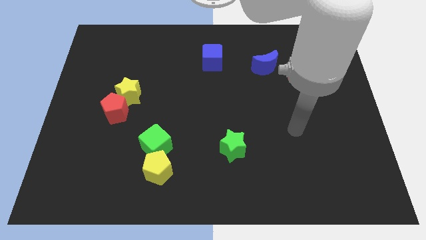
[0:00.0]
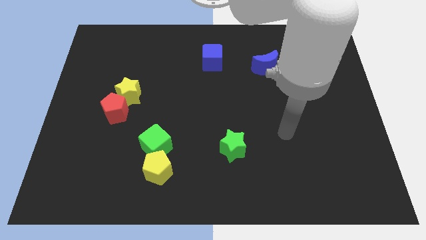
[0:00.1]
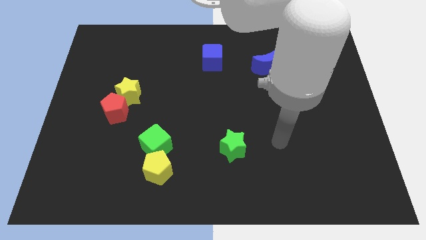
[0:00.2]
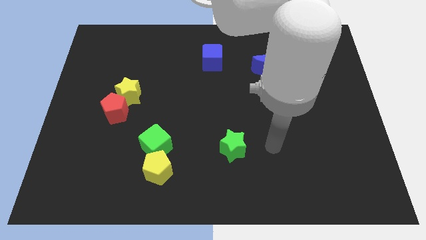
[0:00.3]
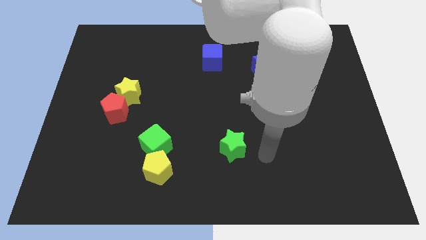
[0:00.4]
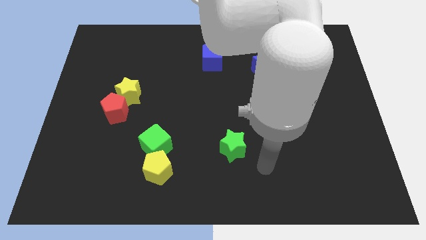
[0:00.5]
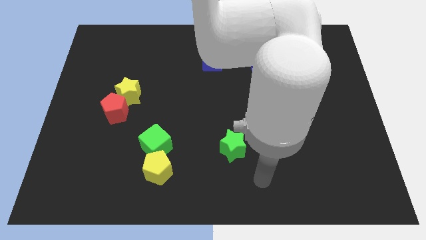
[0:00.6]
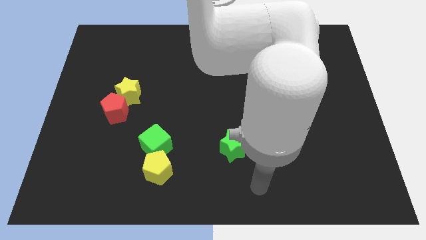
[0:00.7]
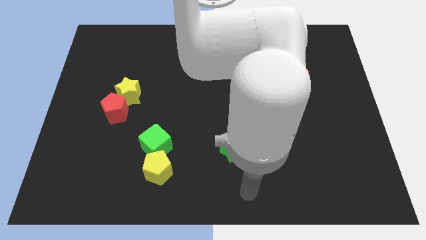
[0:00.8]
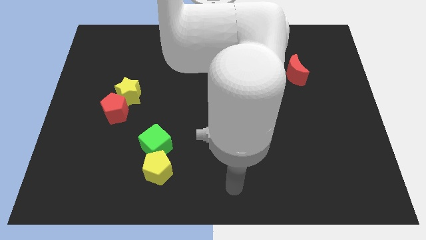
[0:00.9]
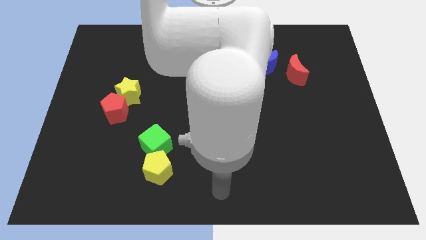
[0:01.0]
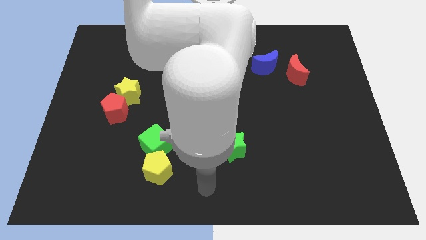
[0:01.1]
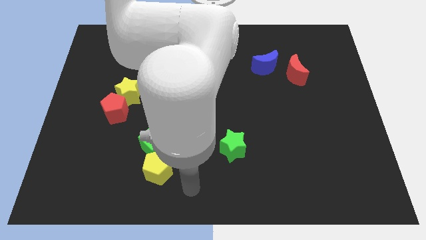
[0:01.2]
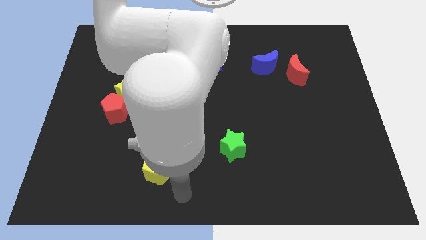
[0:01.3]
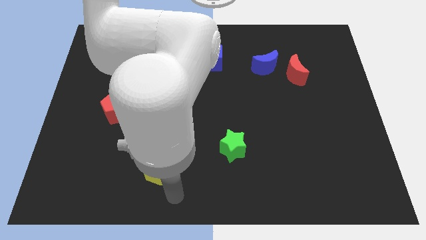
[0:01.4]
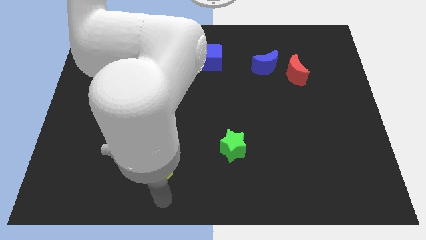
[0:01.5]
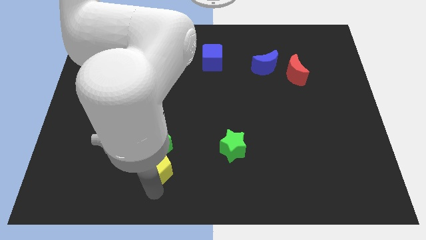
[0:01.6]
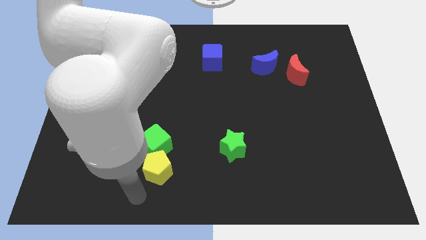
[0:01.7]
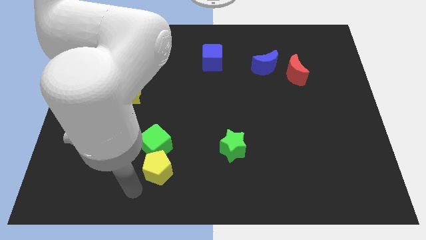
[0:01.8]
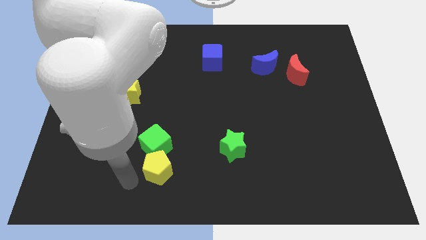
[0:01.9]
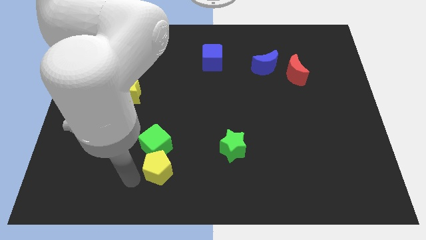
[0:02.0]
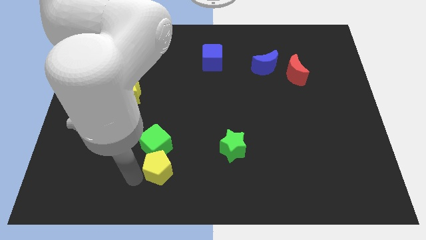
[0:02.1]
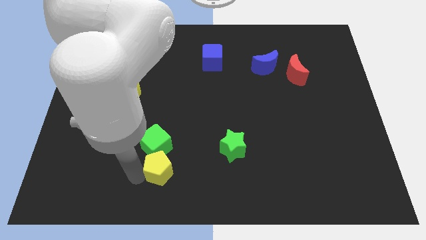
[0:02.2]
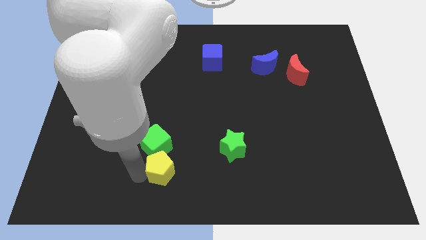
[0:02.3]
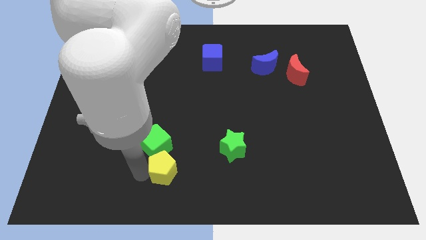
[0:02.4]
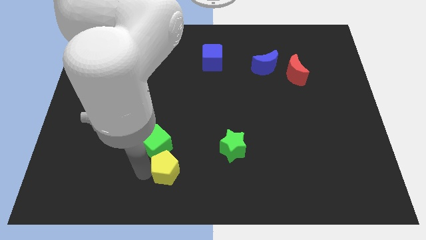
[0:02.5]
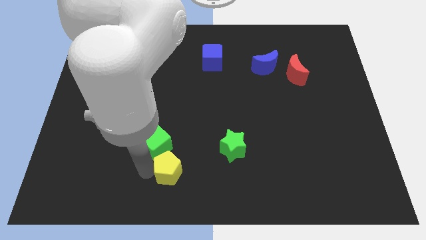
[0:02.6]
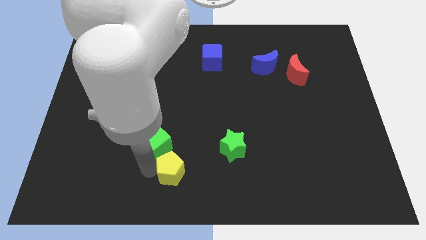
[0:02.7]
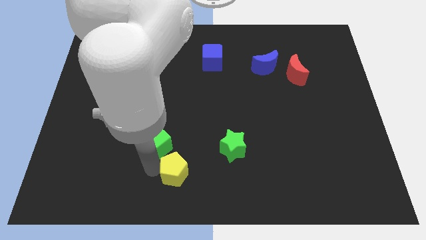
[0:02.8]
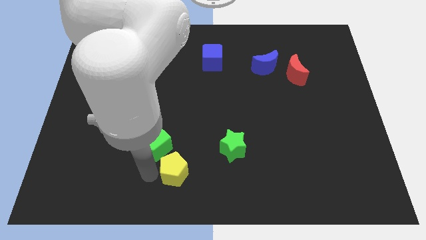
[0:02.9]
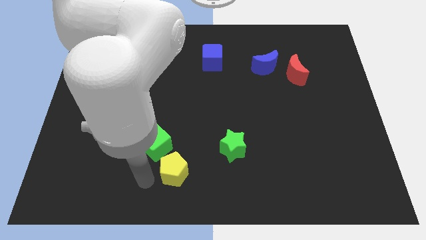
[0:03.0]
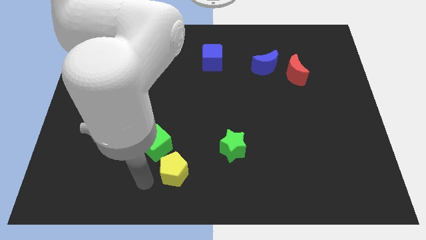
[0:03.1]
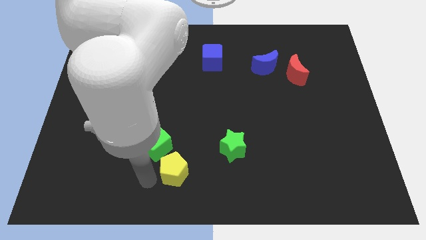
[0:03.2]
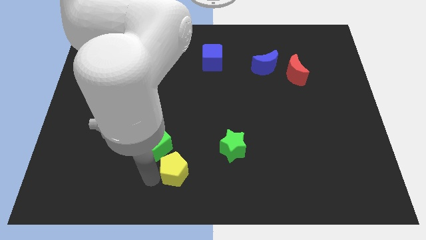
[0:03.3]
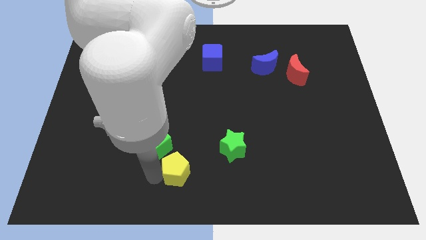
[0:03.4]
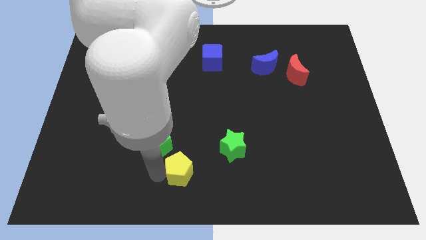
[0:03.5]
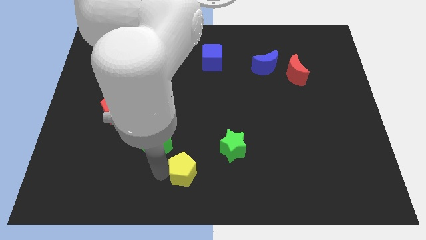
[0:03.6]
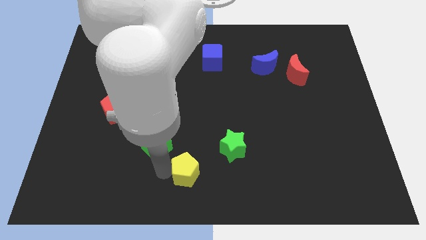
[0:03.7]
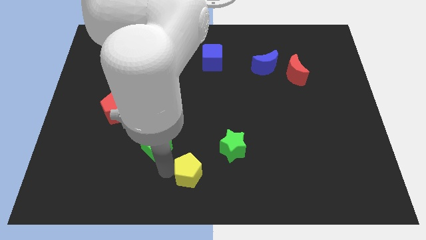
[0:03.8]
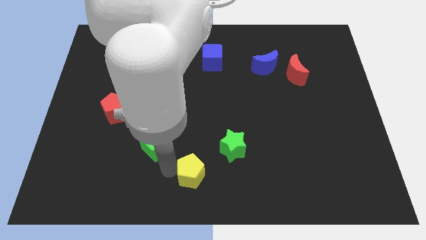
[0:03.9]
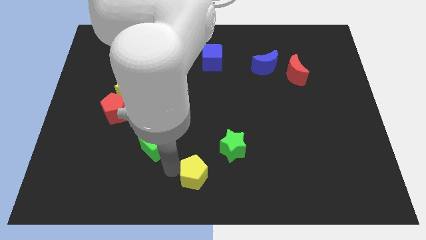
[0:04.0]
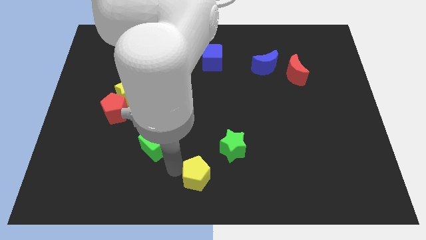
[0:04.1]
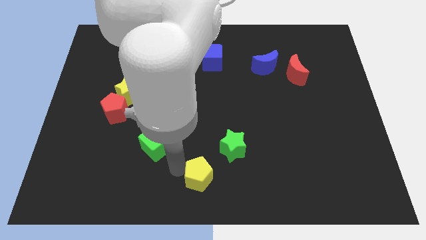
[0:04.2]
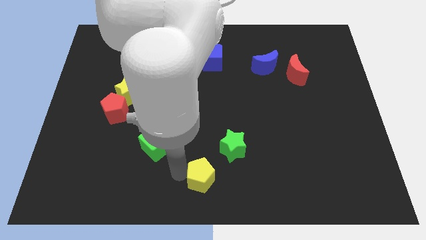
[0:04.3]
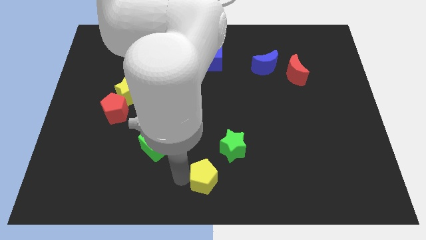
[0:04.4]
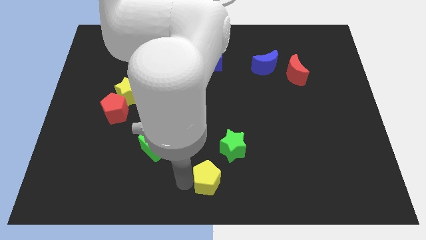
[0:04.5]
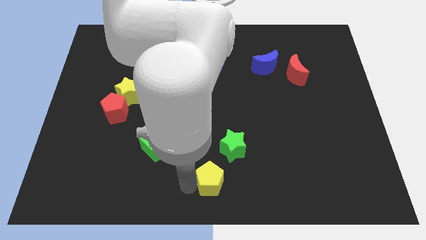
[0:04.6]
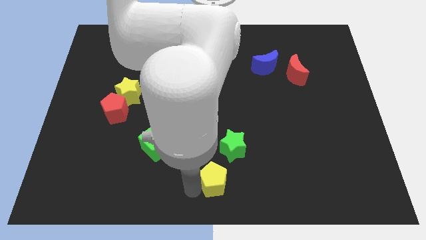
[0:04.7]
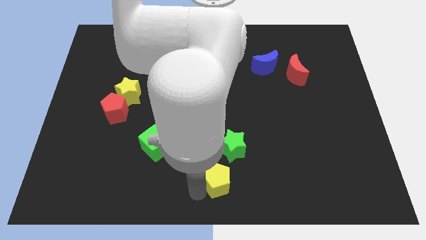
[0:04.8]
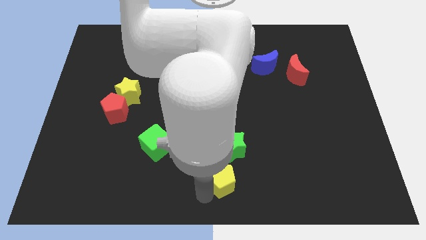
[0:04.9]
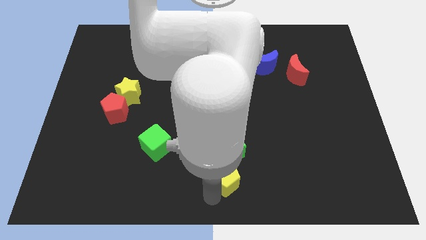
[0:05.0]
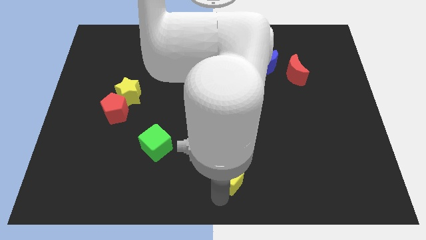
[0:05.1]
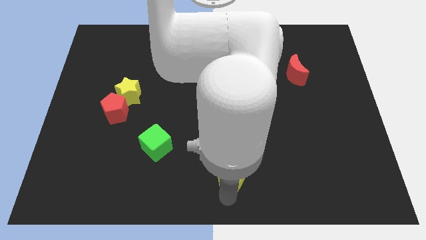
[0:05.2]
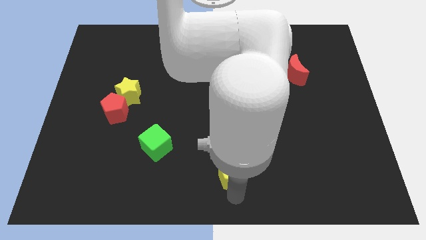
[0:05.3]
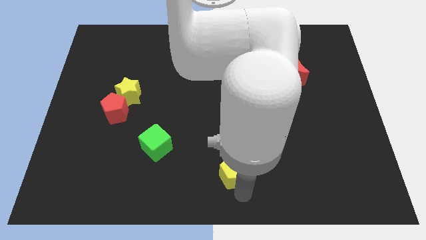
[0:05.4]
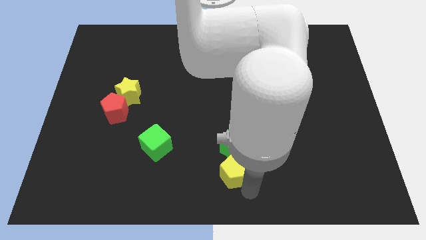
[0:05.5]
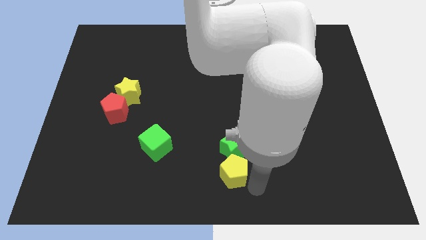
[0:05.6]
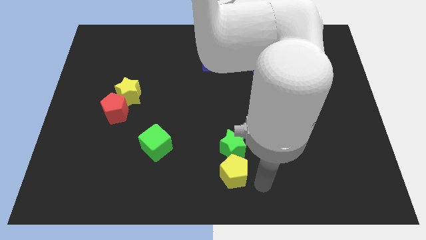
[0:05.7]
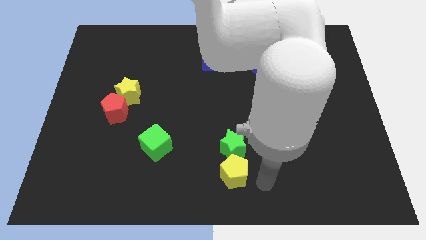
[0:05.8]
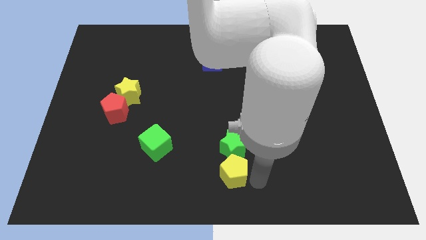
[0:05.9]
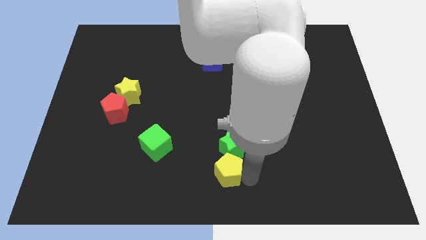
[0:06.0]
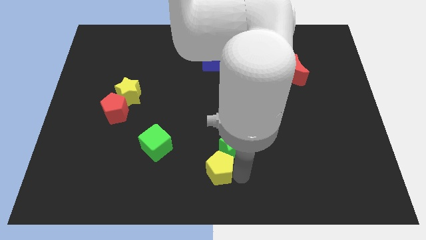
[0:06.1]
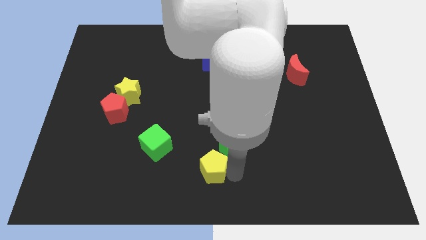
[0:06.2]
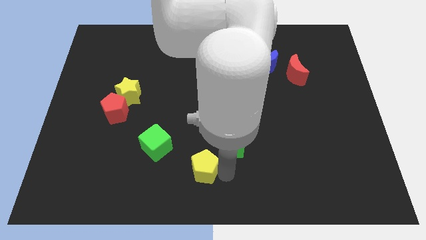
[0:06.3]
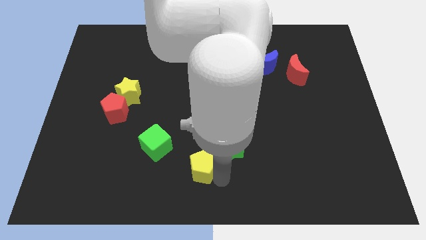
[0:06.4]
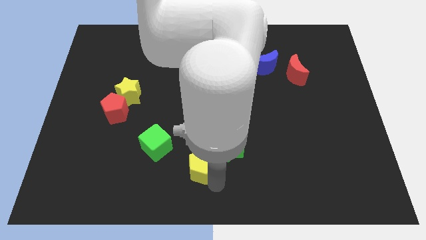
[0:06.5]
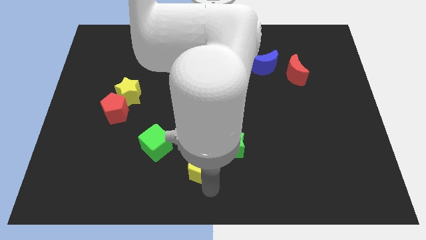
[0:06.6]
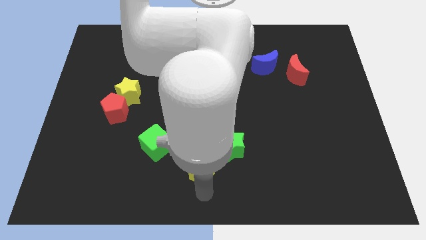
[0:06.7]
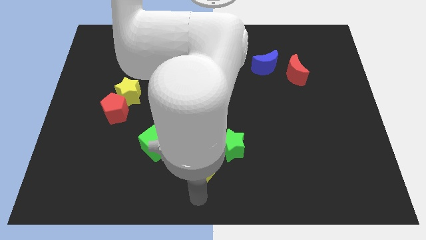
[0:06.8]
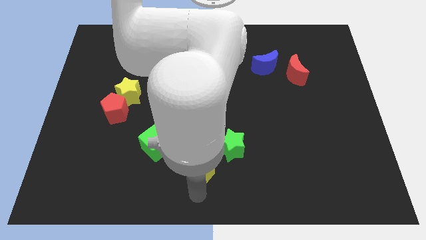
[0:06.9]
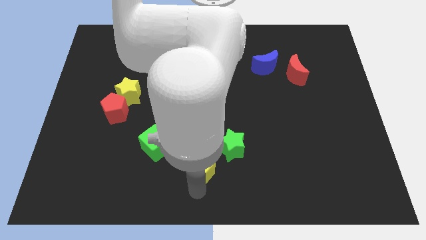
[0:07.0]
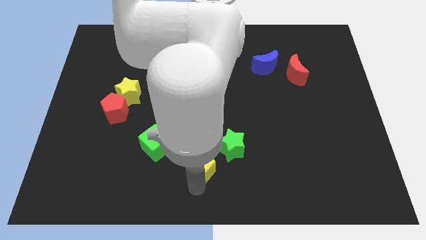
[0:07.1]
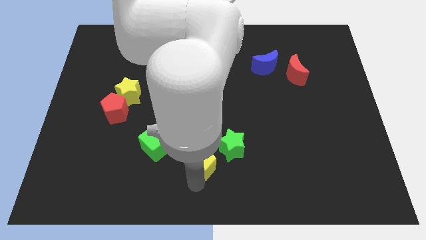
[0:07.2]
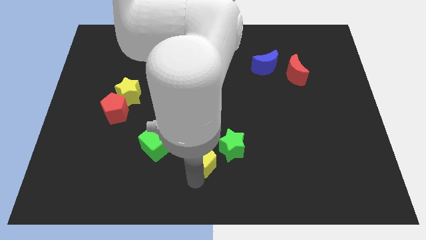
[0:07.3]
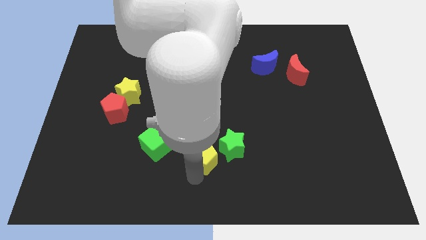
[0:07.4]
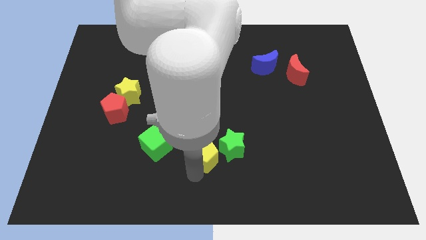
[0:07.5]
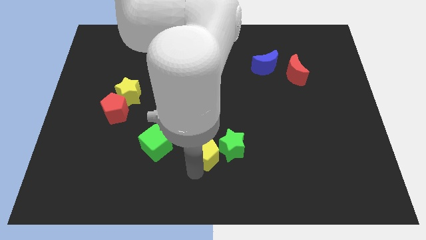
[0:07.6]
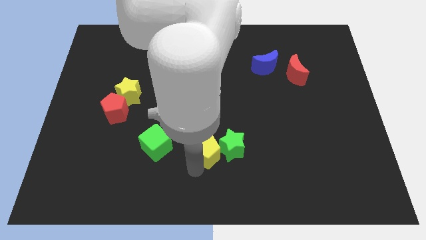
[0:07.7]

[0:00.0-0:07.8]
put the yellow pentagon to the top left side of the green star
